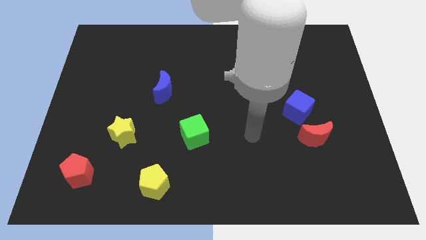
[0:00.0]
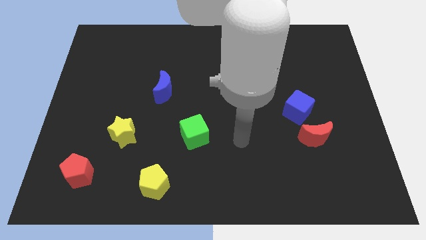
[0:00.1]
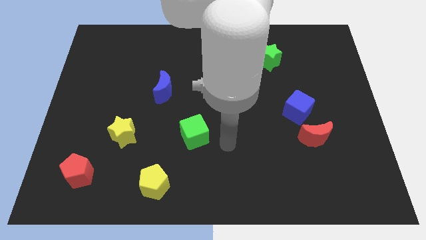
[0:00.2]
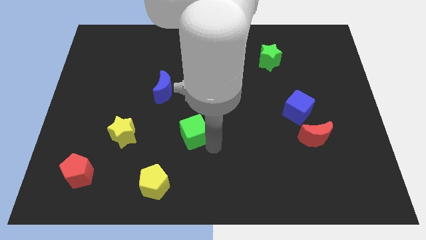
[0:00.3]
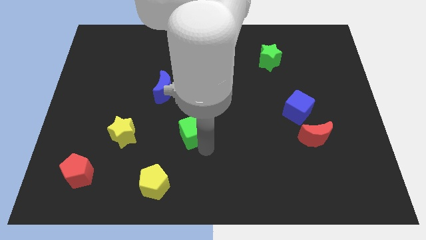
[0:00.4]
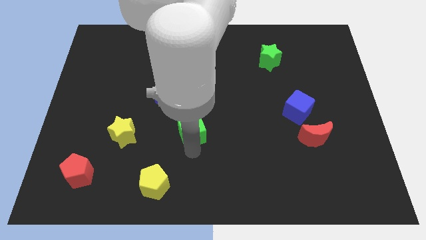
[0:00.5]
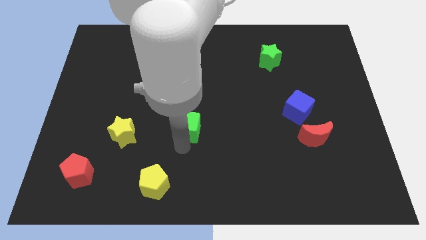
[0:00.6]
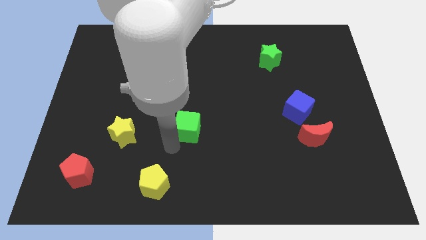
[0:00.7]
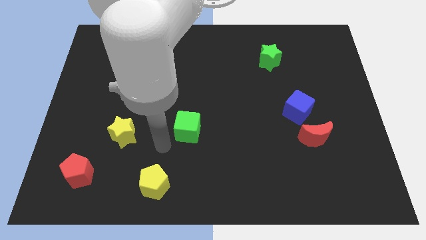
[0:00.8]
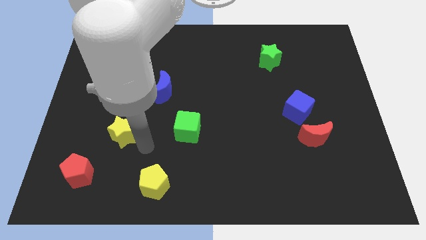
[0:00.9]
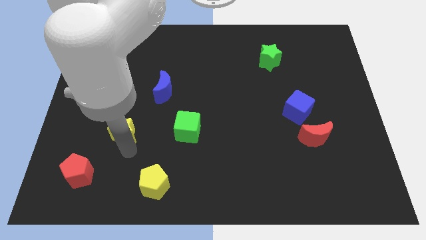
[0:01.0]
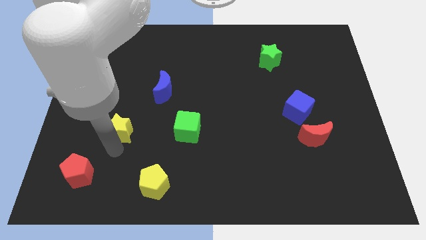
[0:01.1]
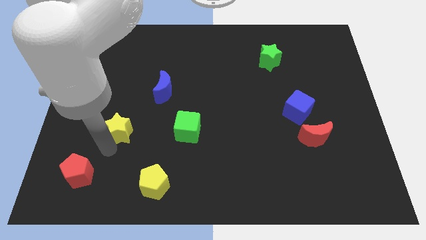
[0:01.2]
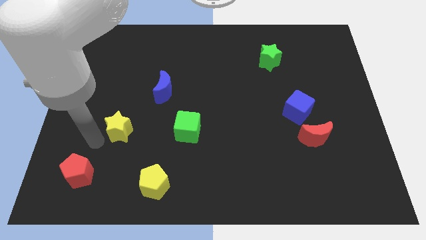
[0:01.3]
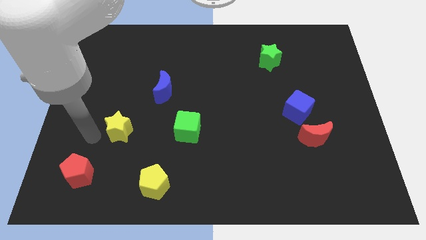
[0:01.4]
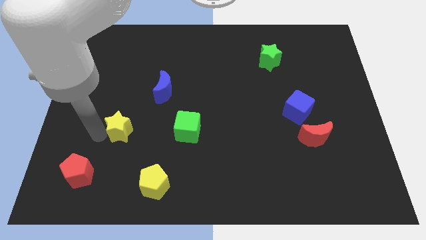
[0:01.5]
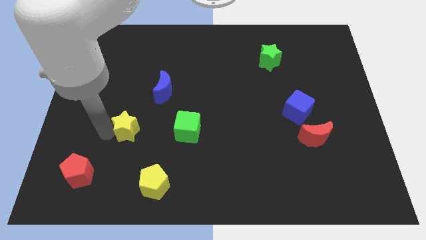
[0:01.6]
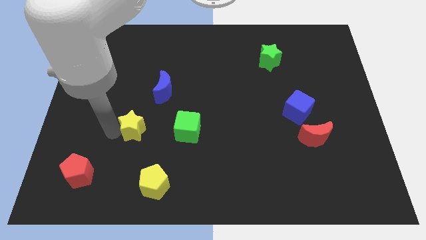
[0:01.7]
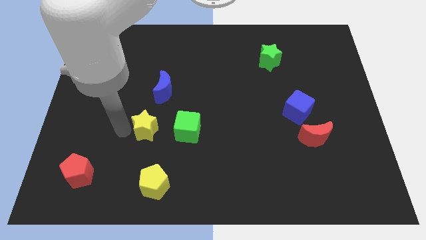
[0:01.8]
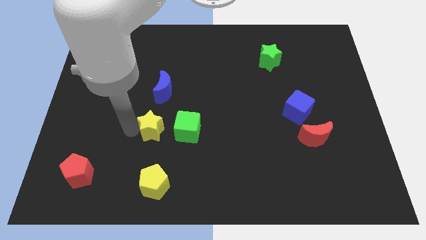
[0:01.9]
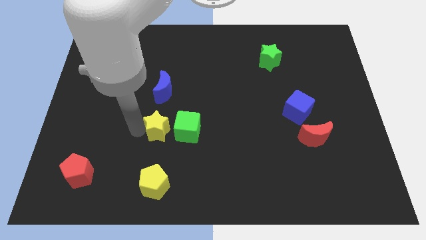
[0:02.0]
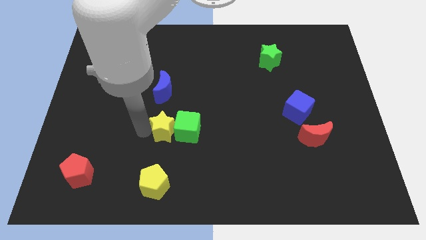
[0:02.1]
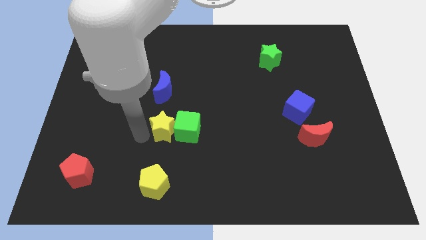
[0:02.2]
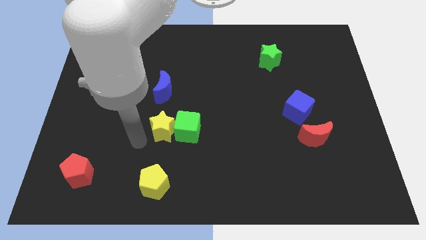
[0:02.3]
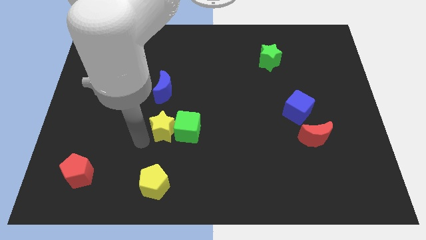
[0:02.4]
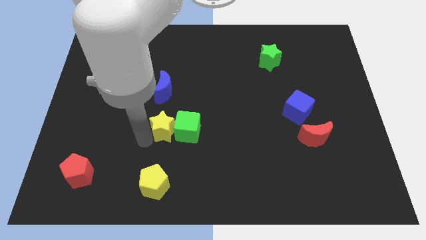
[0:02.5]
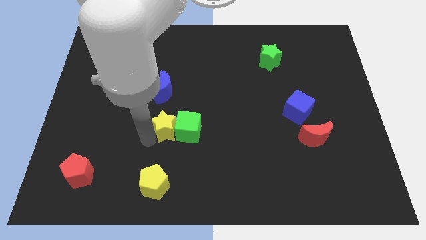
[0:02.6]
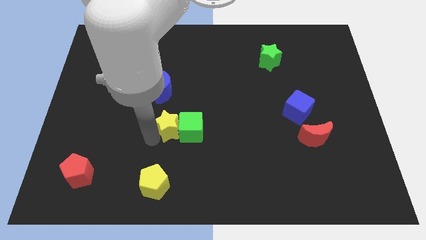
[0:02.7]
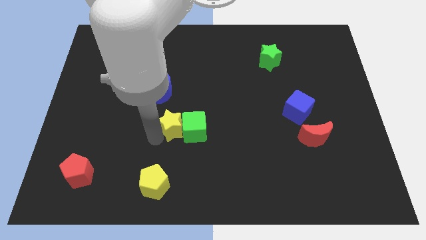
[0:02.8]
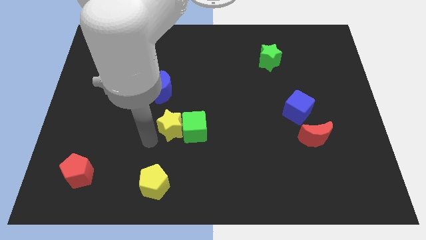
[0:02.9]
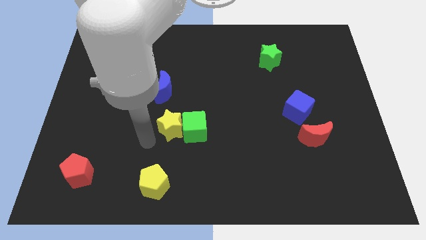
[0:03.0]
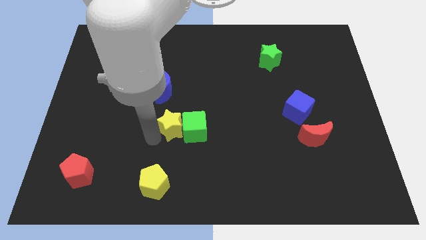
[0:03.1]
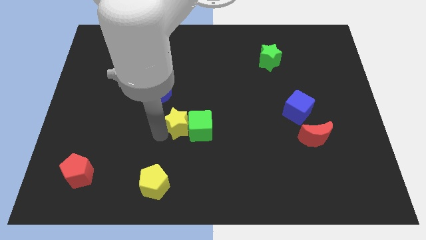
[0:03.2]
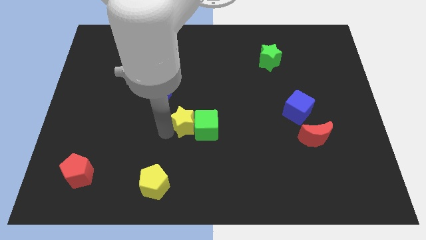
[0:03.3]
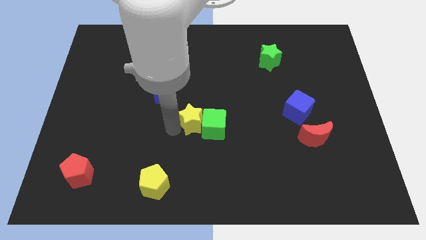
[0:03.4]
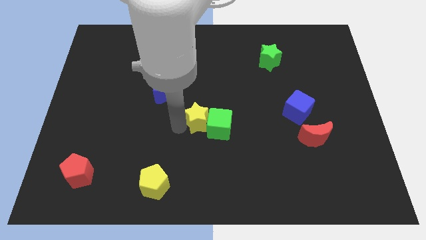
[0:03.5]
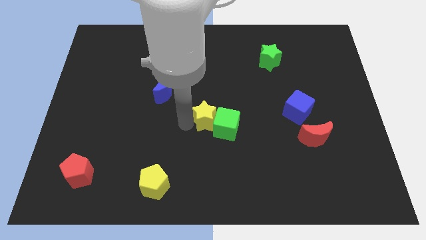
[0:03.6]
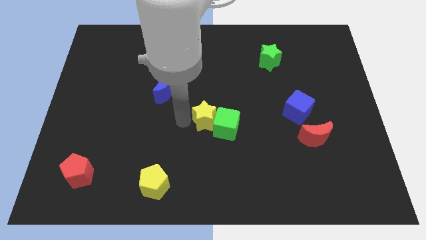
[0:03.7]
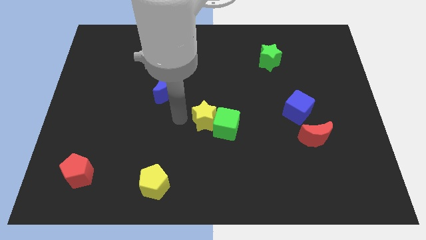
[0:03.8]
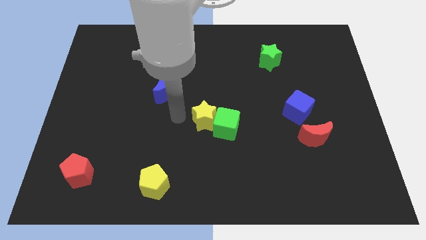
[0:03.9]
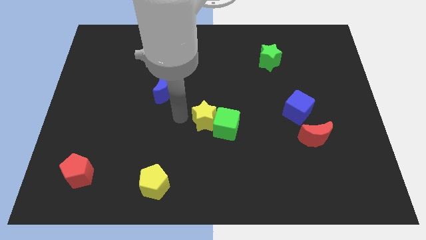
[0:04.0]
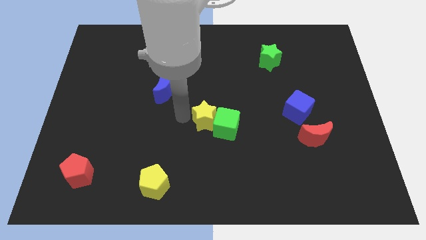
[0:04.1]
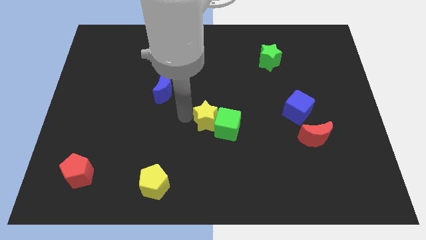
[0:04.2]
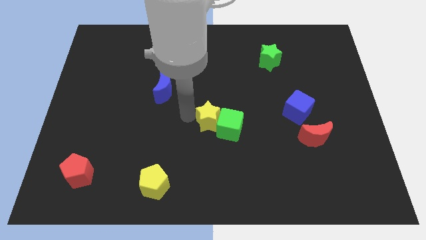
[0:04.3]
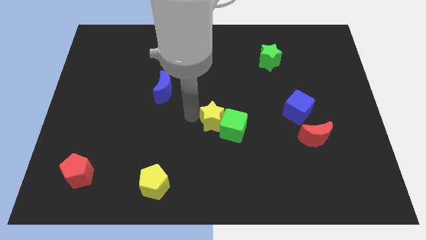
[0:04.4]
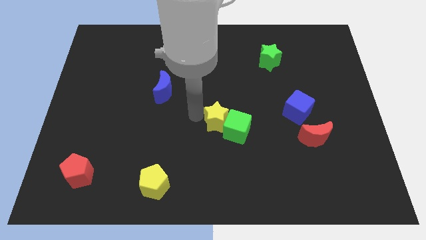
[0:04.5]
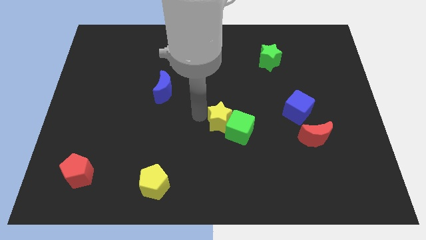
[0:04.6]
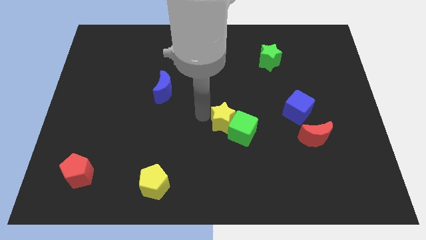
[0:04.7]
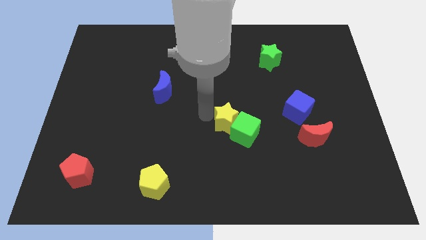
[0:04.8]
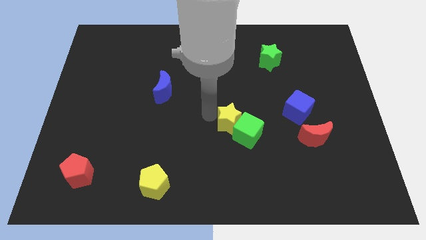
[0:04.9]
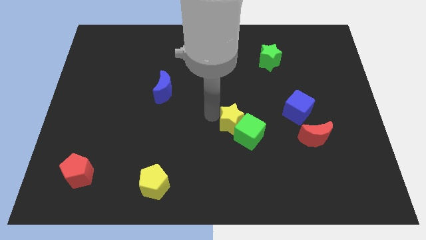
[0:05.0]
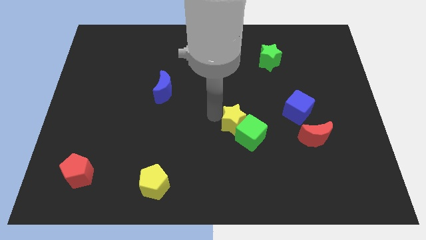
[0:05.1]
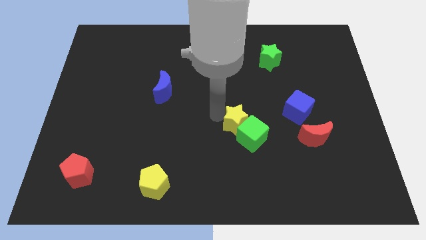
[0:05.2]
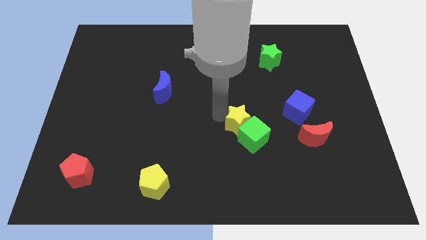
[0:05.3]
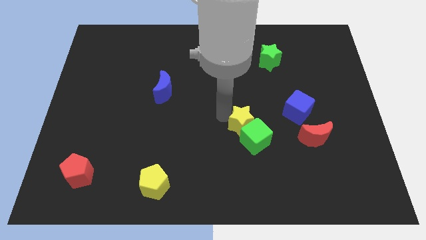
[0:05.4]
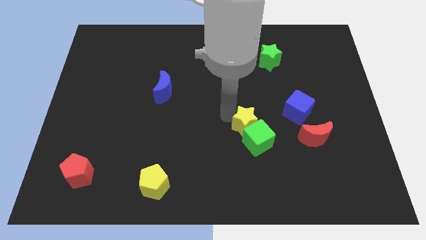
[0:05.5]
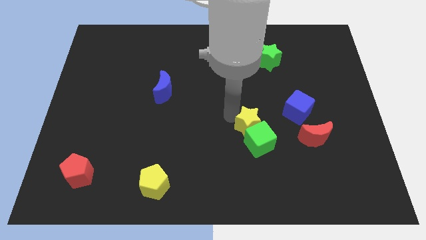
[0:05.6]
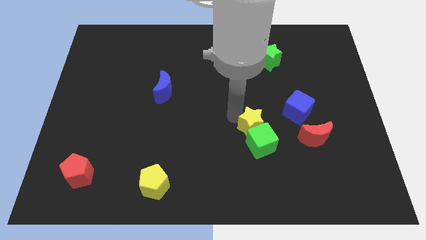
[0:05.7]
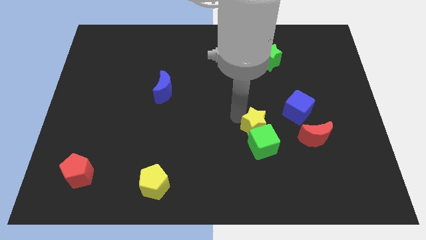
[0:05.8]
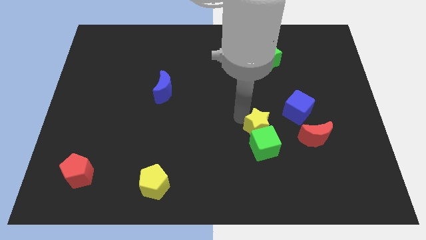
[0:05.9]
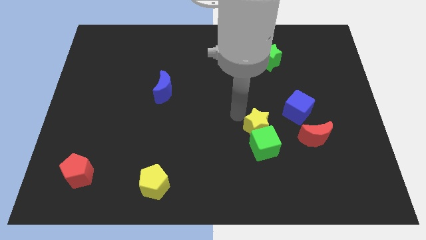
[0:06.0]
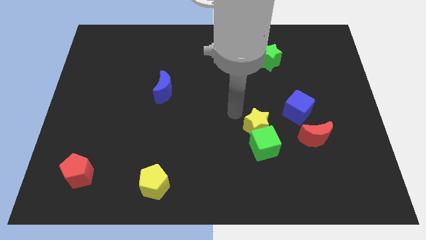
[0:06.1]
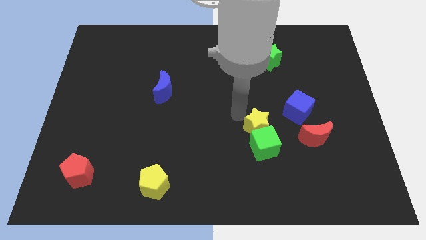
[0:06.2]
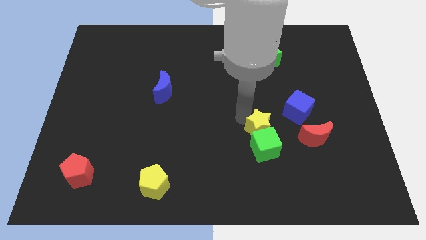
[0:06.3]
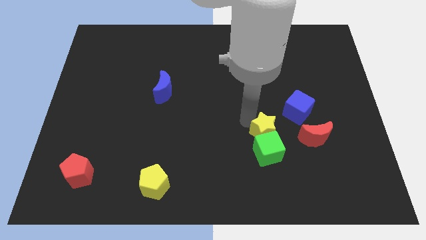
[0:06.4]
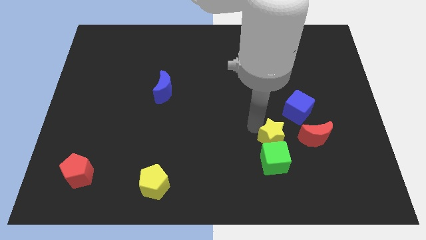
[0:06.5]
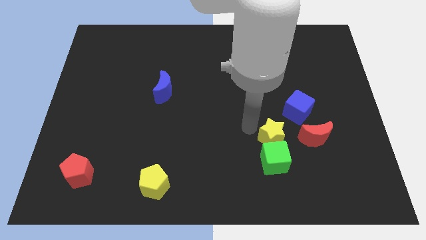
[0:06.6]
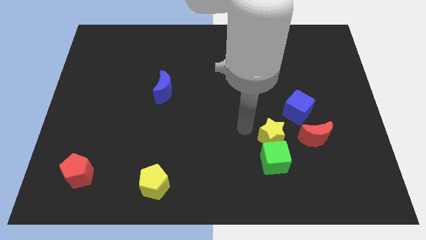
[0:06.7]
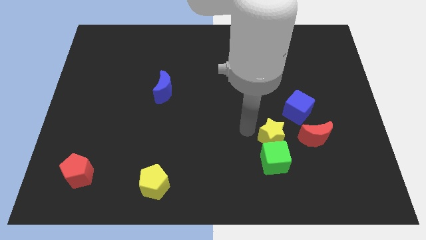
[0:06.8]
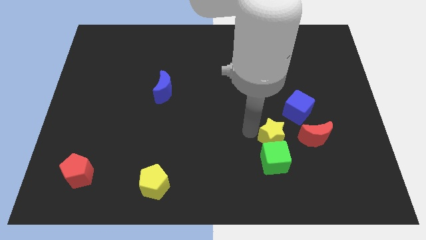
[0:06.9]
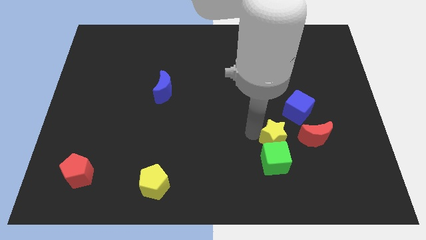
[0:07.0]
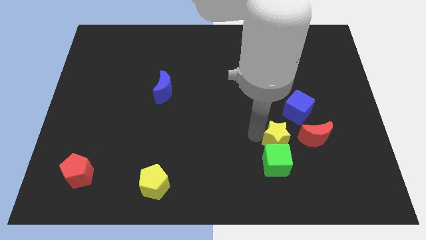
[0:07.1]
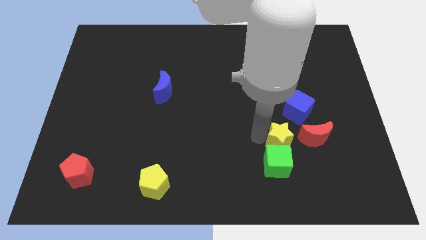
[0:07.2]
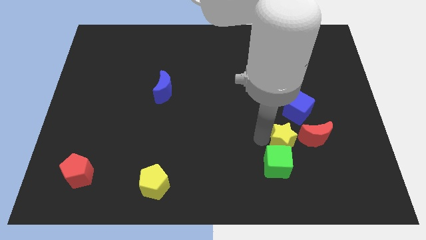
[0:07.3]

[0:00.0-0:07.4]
slide the yellow star below the blue cube
